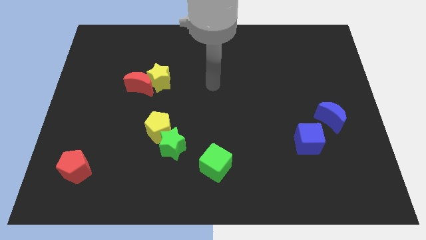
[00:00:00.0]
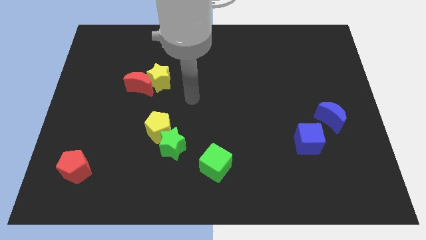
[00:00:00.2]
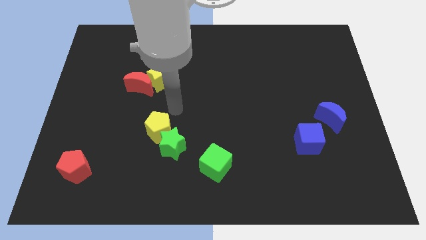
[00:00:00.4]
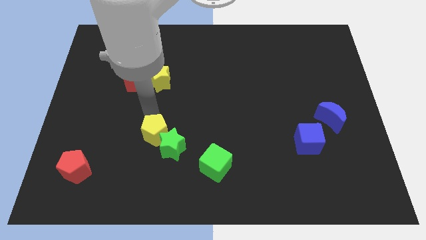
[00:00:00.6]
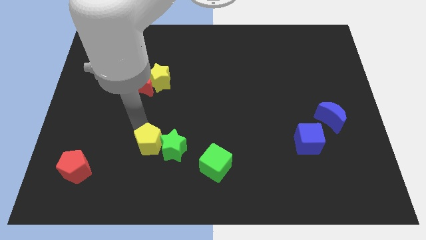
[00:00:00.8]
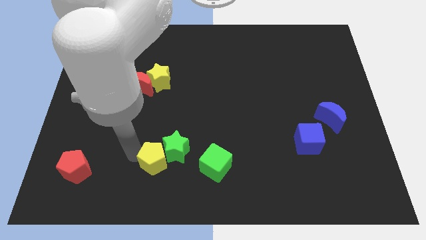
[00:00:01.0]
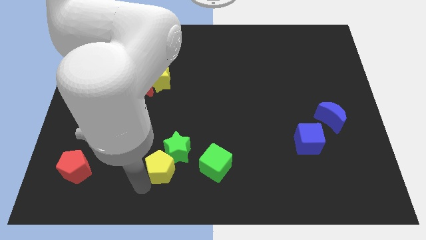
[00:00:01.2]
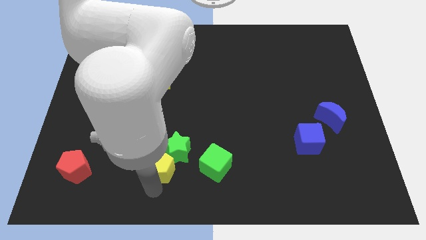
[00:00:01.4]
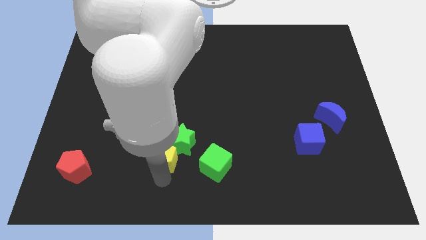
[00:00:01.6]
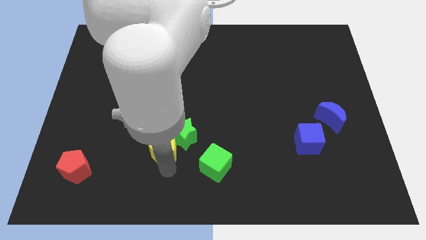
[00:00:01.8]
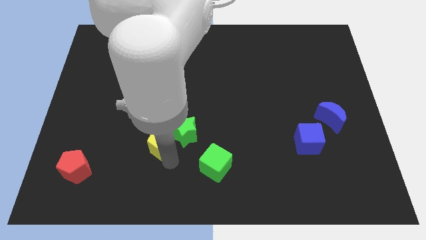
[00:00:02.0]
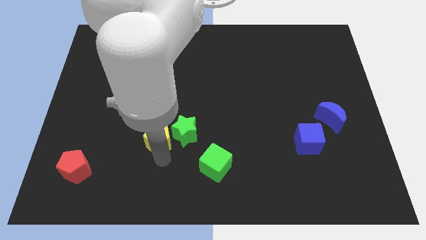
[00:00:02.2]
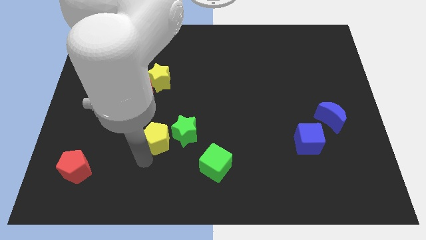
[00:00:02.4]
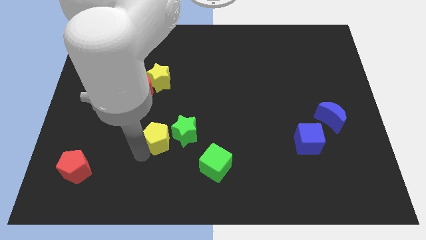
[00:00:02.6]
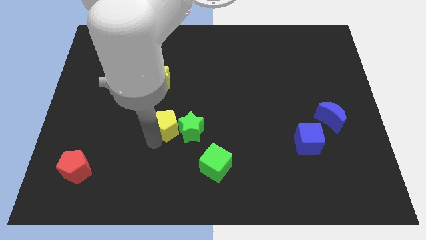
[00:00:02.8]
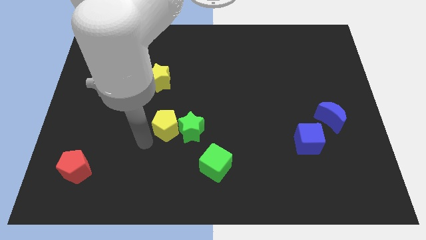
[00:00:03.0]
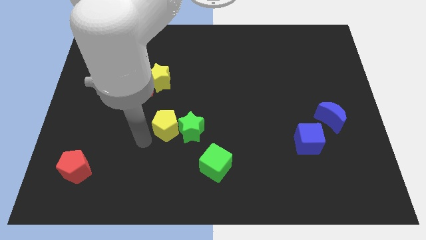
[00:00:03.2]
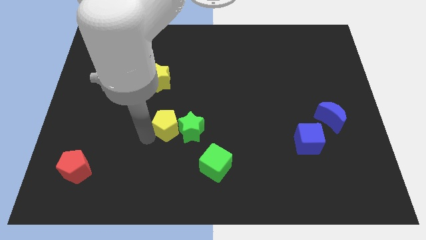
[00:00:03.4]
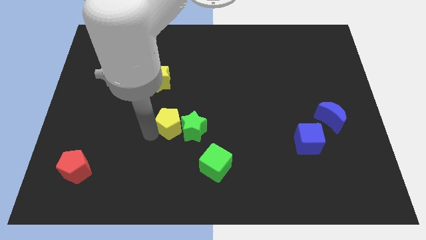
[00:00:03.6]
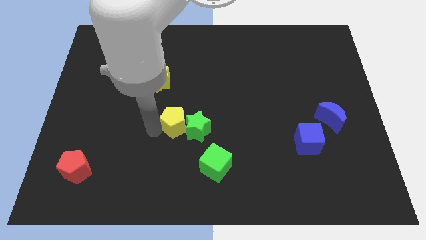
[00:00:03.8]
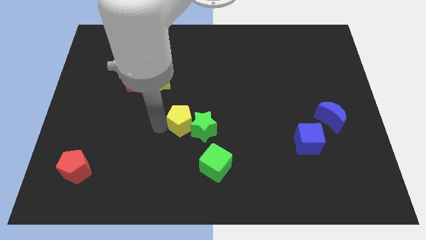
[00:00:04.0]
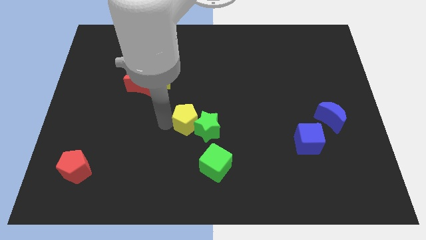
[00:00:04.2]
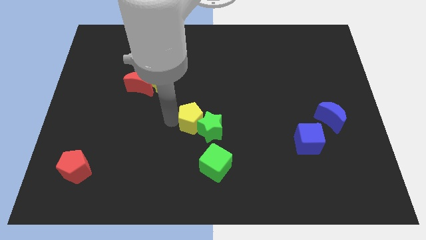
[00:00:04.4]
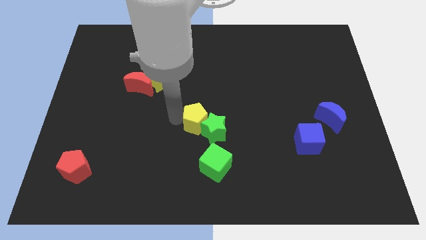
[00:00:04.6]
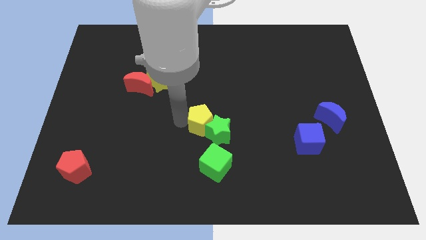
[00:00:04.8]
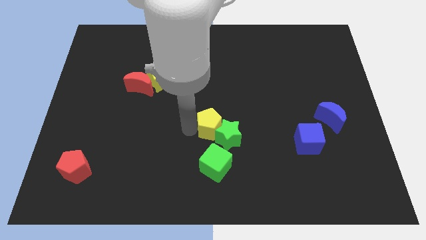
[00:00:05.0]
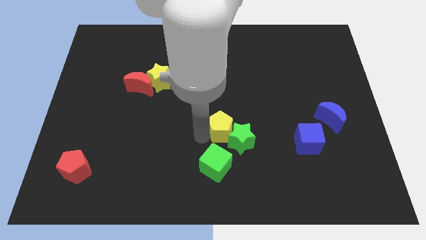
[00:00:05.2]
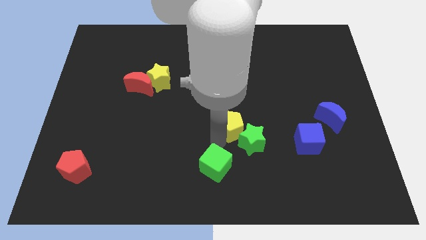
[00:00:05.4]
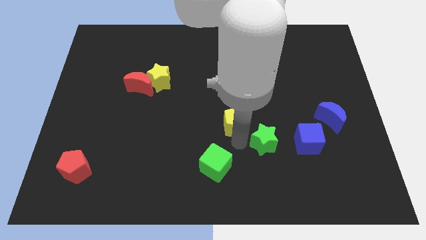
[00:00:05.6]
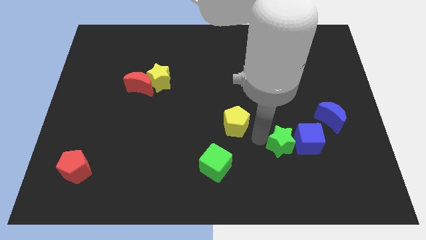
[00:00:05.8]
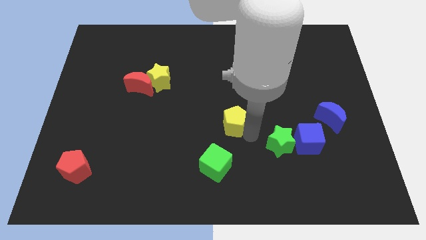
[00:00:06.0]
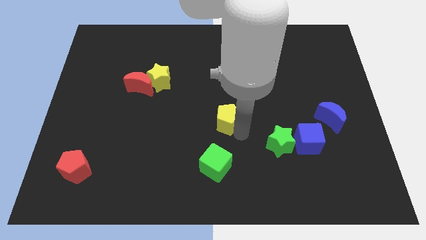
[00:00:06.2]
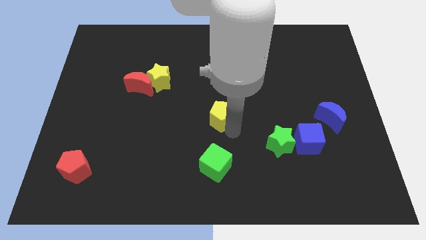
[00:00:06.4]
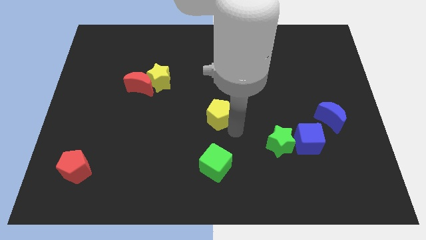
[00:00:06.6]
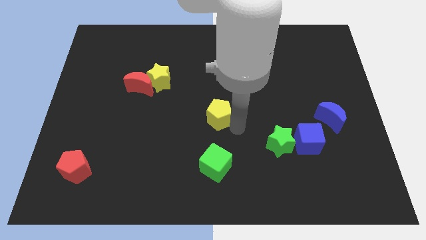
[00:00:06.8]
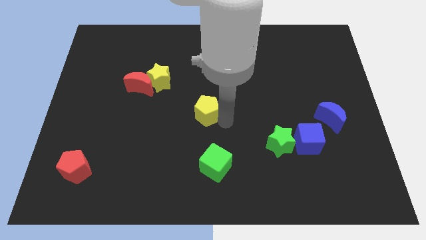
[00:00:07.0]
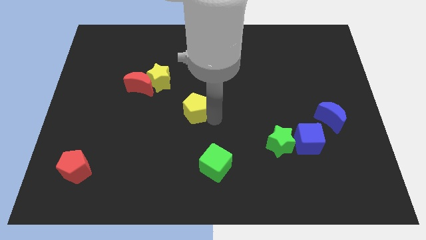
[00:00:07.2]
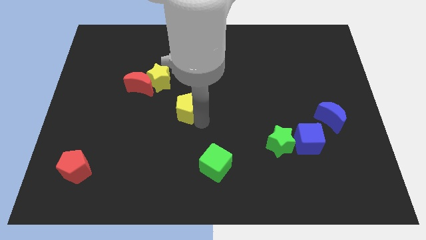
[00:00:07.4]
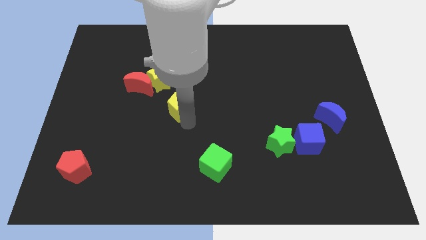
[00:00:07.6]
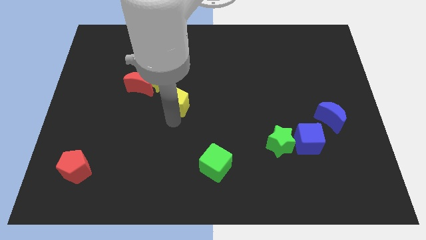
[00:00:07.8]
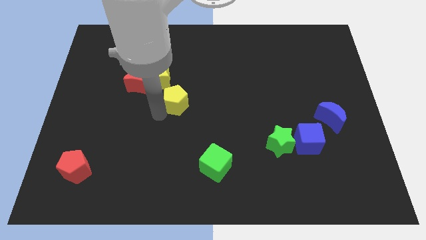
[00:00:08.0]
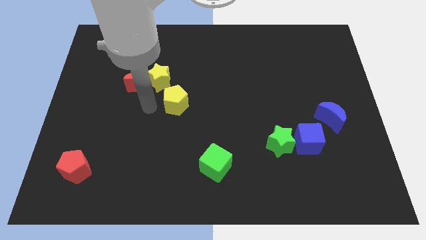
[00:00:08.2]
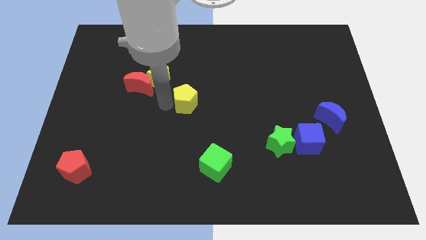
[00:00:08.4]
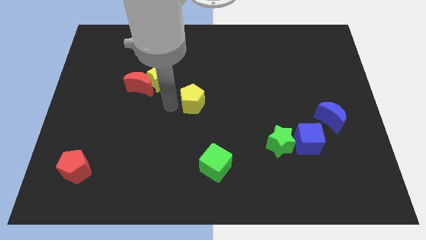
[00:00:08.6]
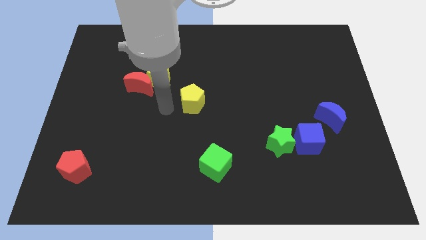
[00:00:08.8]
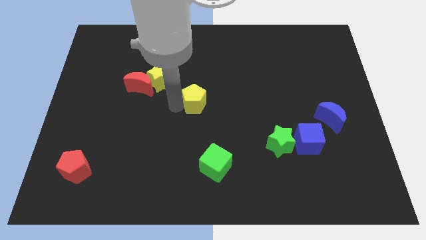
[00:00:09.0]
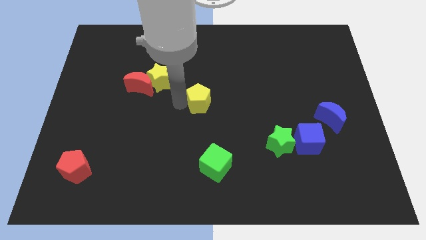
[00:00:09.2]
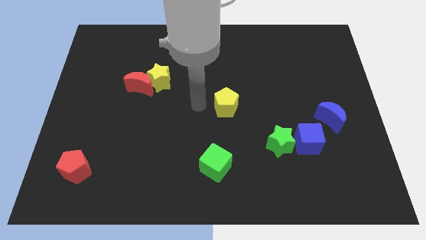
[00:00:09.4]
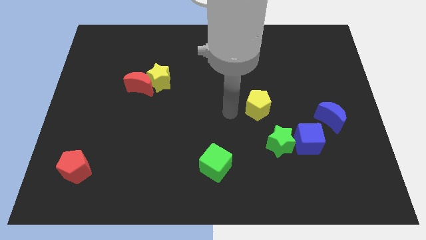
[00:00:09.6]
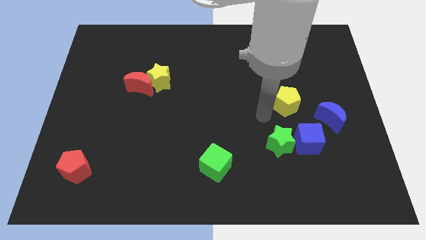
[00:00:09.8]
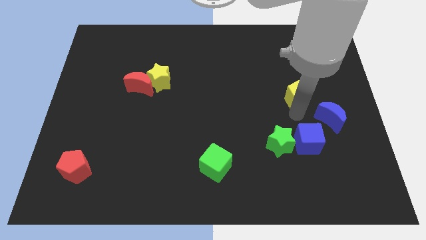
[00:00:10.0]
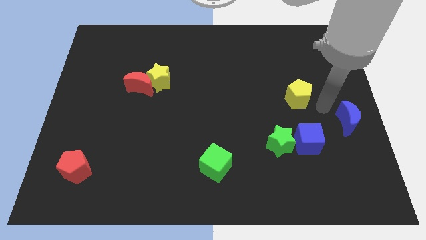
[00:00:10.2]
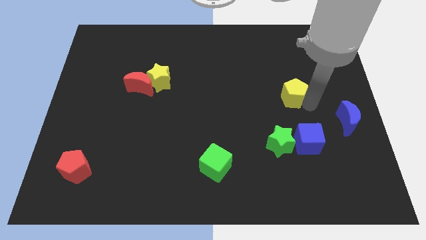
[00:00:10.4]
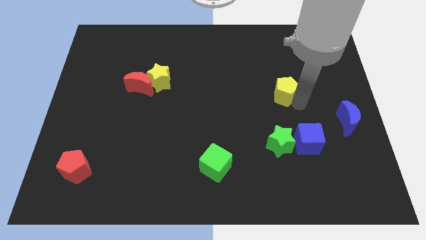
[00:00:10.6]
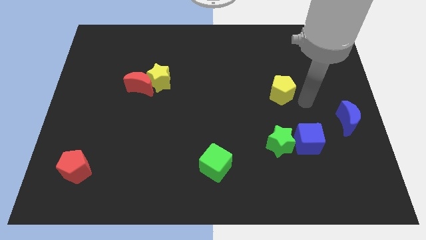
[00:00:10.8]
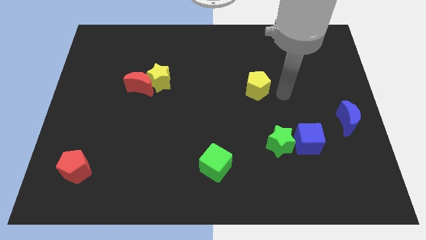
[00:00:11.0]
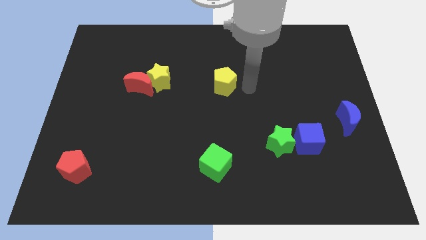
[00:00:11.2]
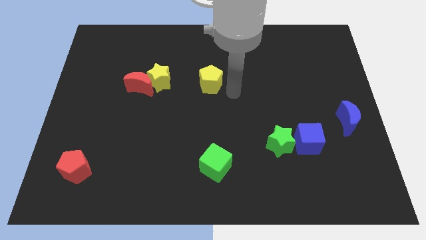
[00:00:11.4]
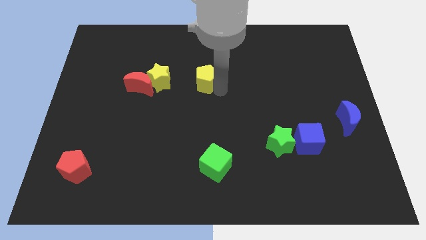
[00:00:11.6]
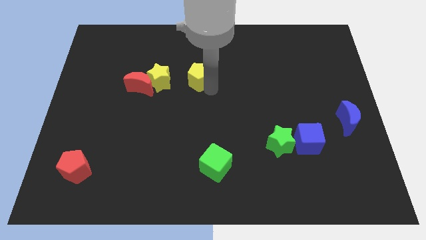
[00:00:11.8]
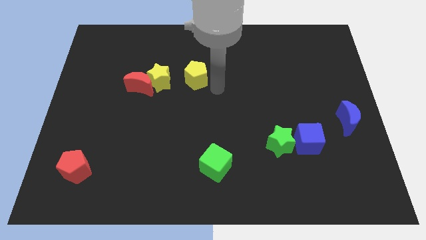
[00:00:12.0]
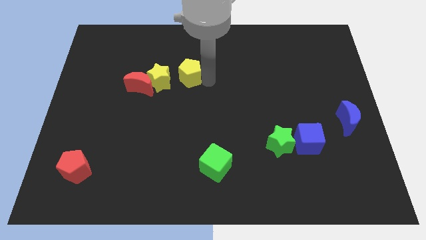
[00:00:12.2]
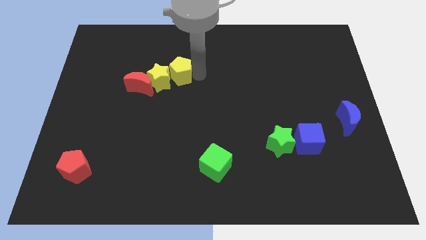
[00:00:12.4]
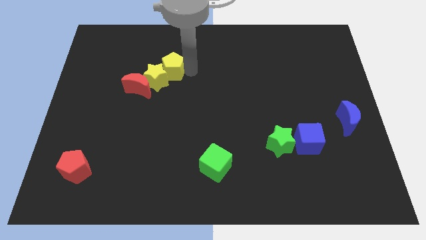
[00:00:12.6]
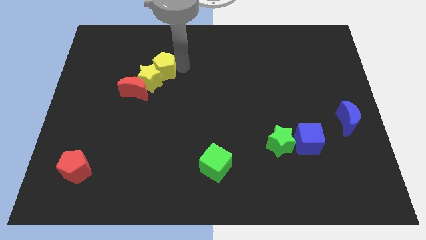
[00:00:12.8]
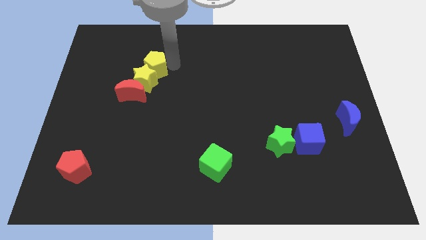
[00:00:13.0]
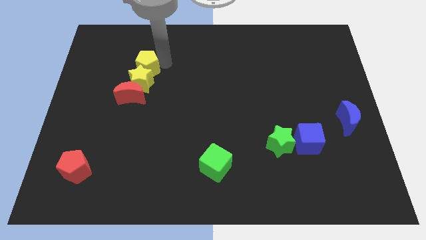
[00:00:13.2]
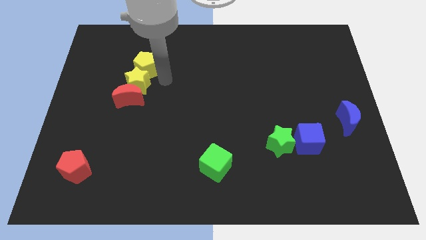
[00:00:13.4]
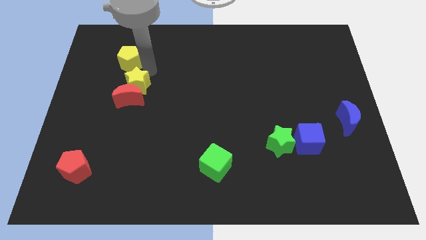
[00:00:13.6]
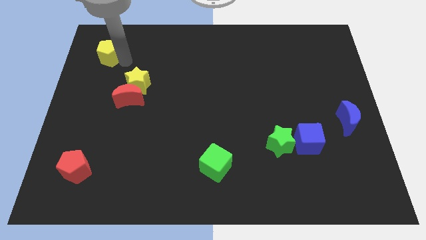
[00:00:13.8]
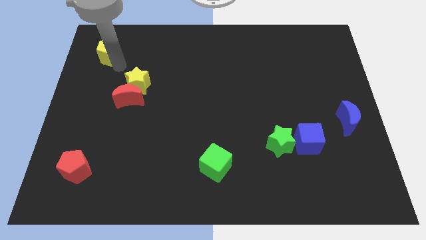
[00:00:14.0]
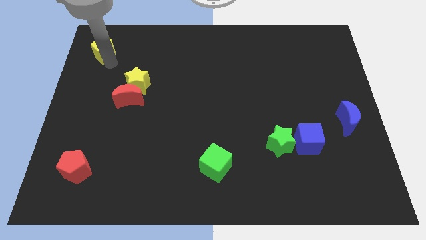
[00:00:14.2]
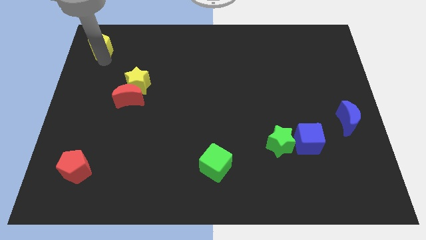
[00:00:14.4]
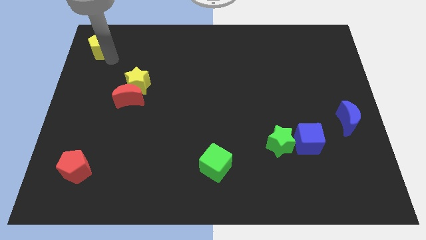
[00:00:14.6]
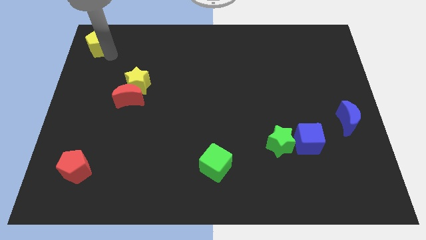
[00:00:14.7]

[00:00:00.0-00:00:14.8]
move the yellow pentagon to the top left corner
